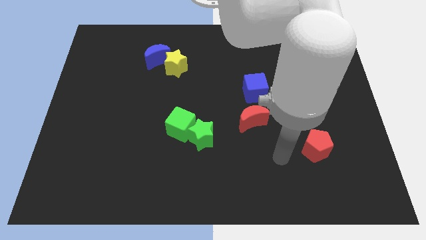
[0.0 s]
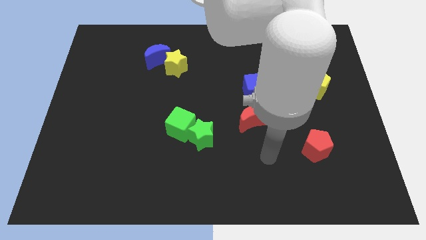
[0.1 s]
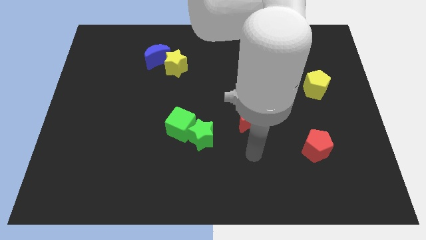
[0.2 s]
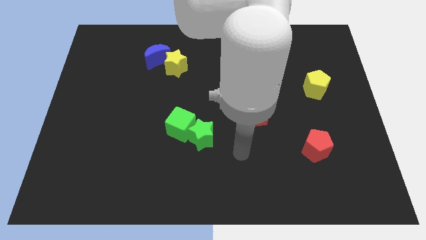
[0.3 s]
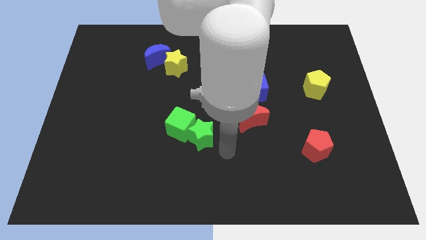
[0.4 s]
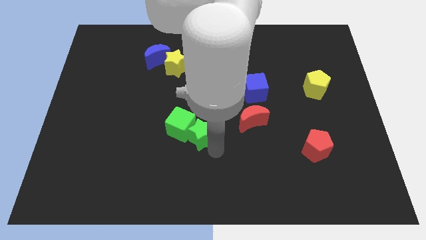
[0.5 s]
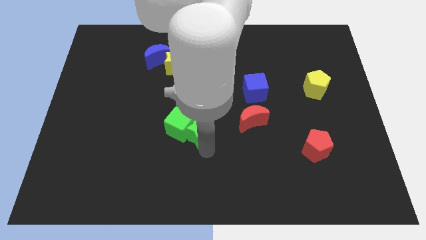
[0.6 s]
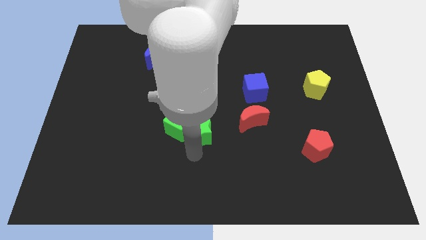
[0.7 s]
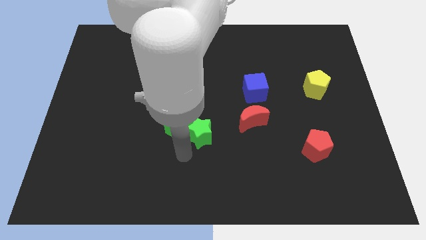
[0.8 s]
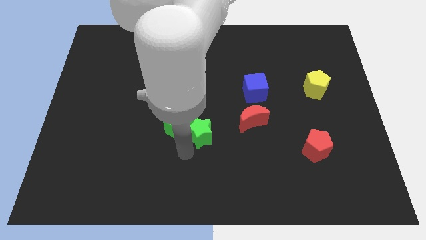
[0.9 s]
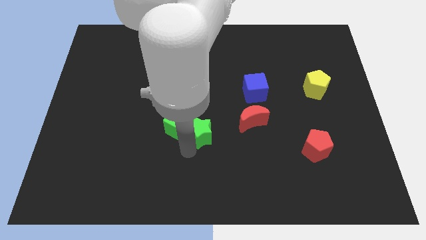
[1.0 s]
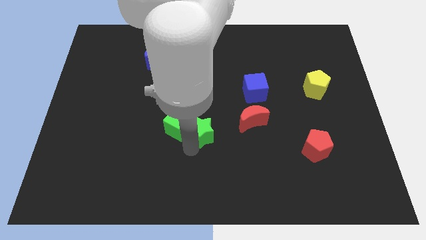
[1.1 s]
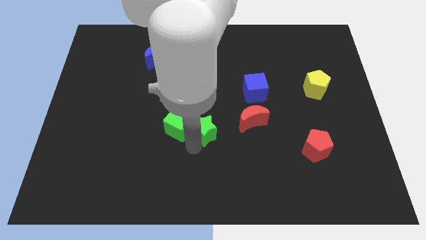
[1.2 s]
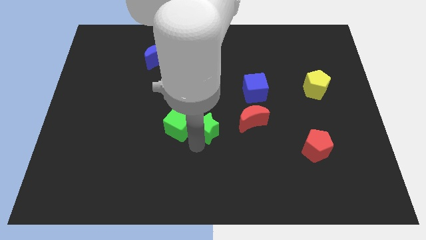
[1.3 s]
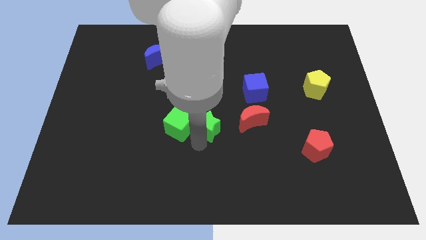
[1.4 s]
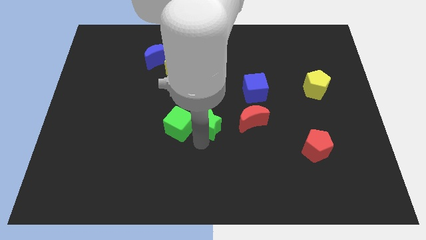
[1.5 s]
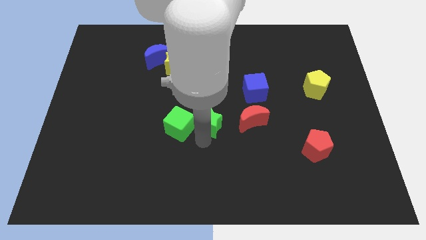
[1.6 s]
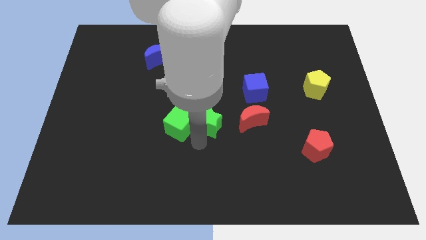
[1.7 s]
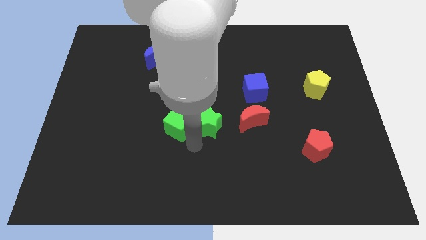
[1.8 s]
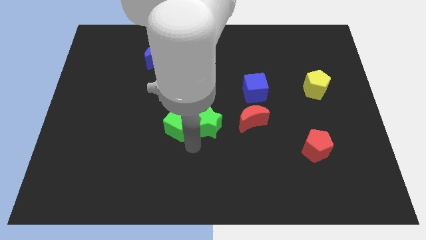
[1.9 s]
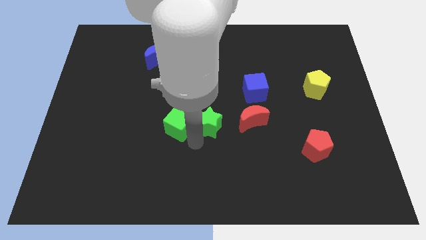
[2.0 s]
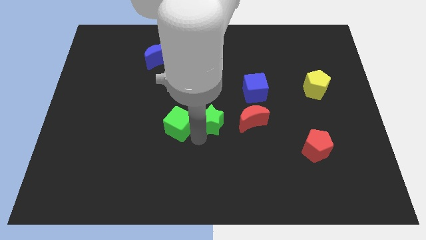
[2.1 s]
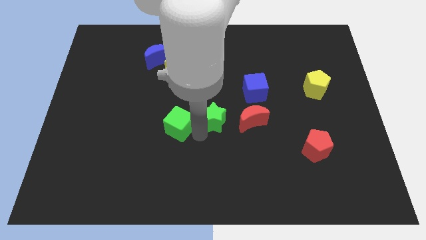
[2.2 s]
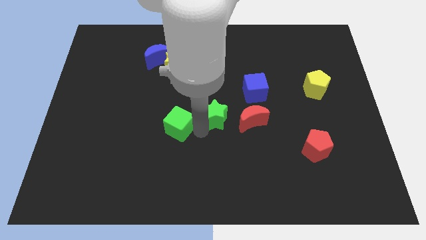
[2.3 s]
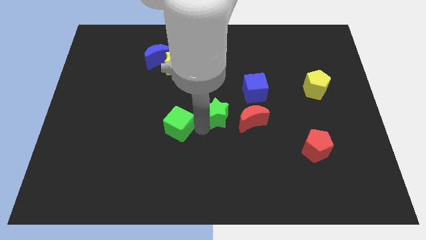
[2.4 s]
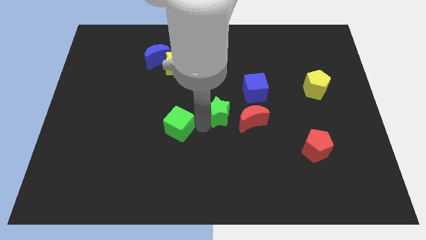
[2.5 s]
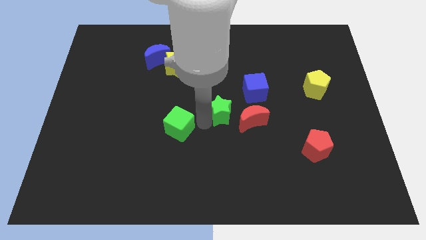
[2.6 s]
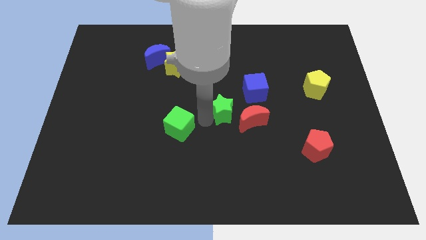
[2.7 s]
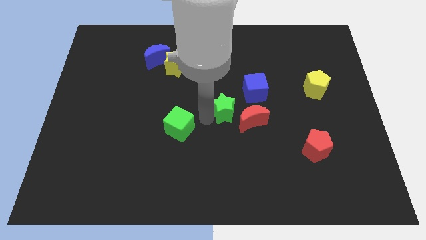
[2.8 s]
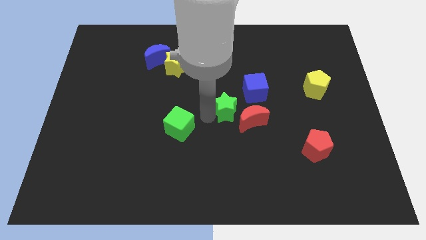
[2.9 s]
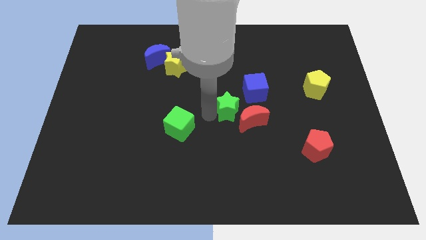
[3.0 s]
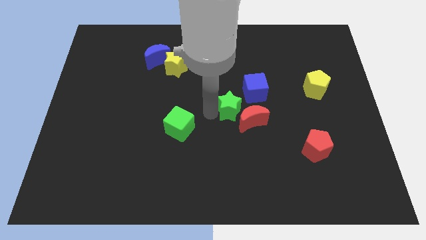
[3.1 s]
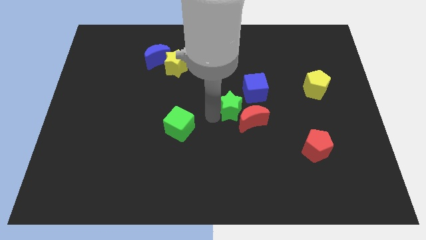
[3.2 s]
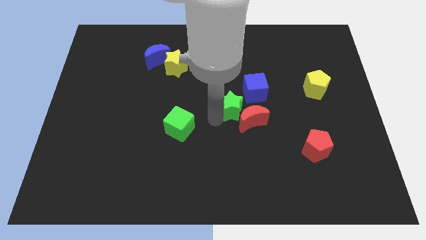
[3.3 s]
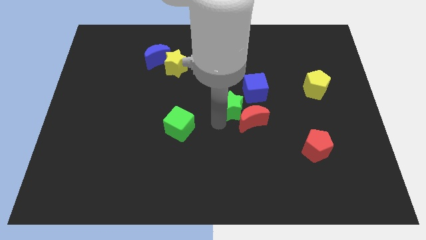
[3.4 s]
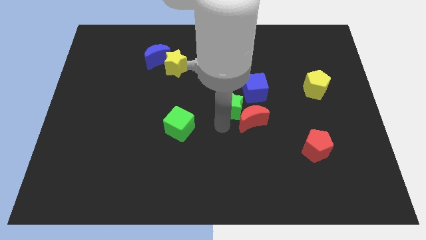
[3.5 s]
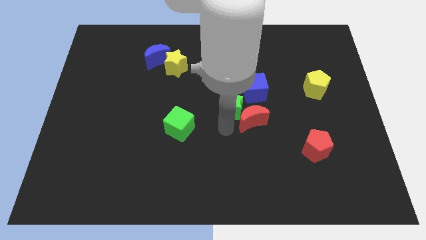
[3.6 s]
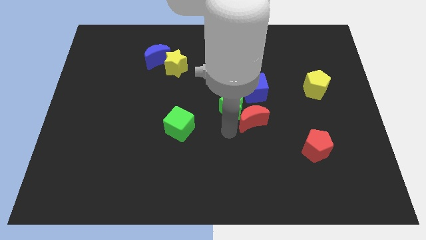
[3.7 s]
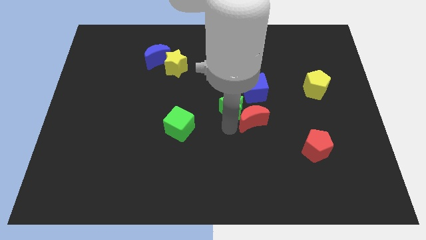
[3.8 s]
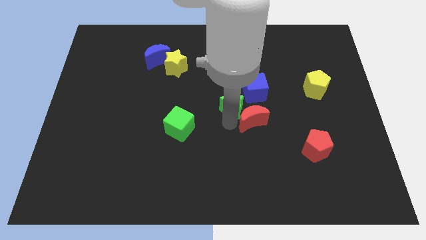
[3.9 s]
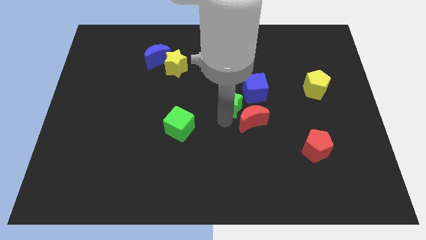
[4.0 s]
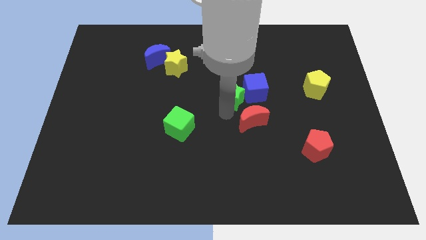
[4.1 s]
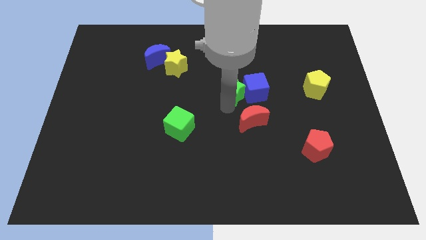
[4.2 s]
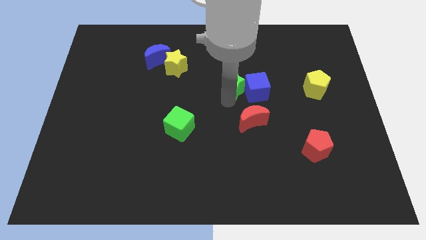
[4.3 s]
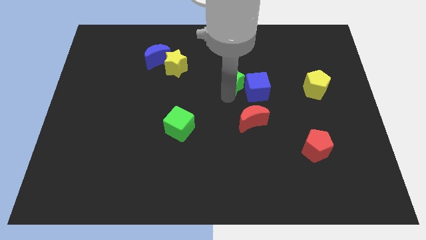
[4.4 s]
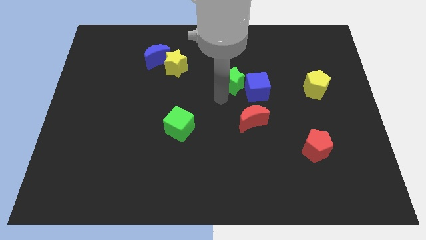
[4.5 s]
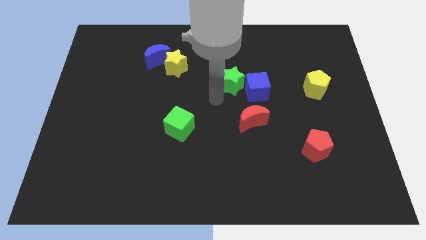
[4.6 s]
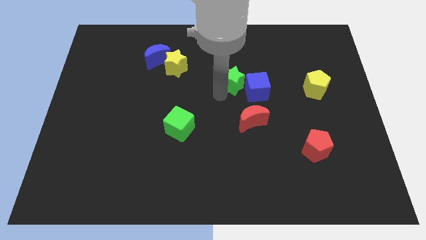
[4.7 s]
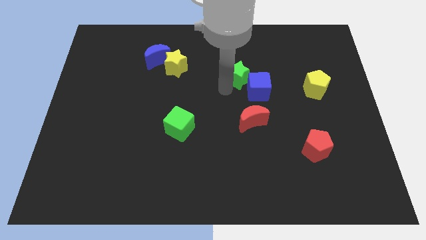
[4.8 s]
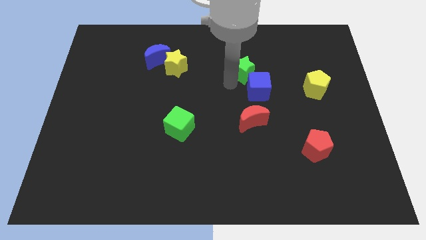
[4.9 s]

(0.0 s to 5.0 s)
push the green star to the top of the blue cube

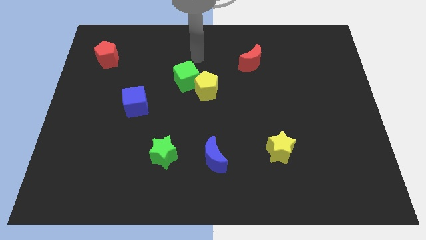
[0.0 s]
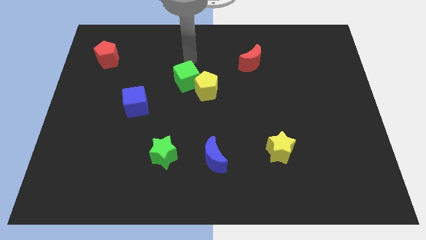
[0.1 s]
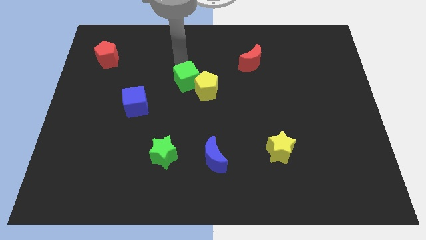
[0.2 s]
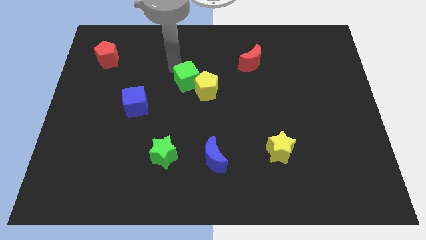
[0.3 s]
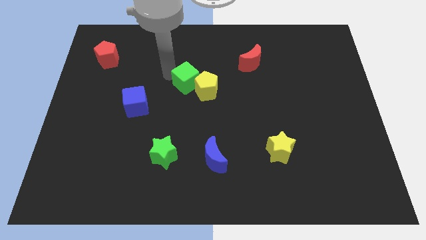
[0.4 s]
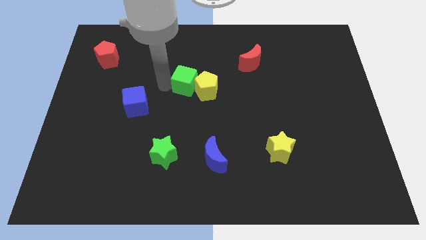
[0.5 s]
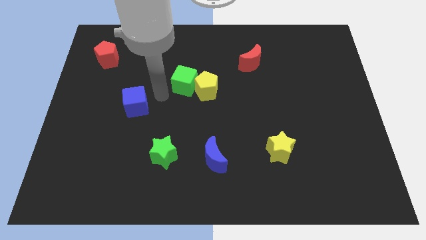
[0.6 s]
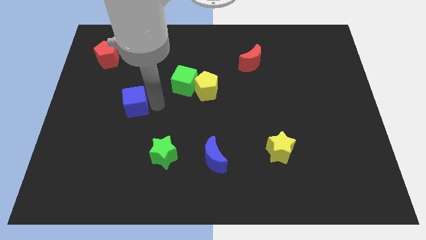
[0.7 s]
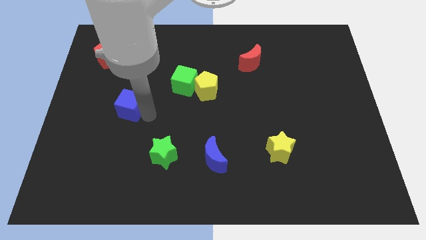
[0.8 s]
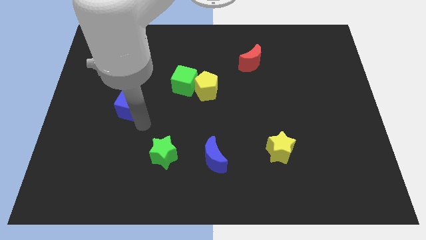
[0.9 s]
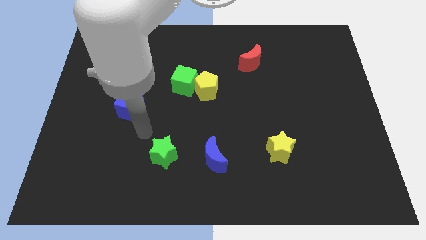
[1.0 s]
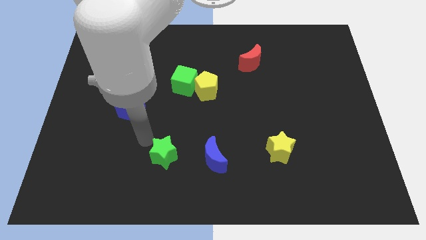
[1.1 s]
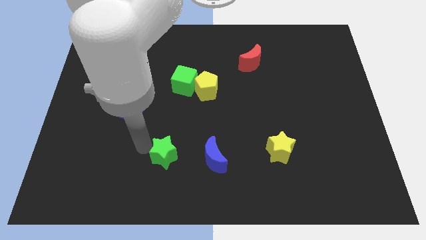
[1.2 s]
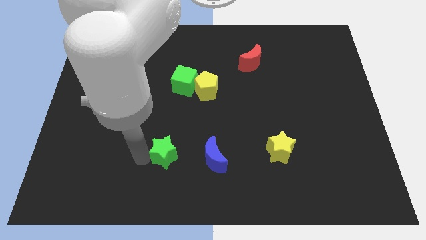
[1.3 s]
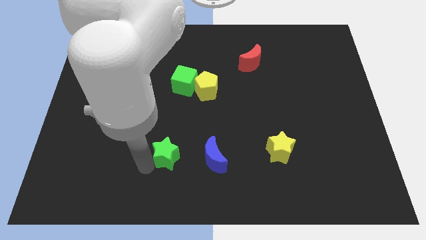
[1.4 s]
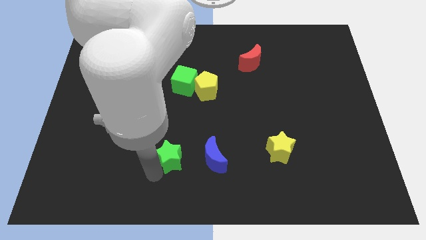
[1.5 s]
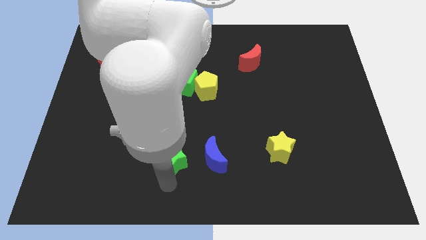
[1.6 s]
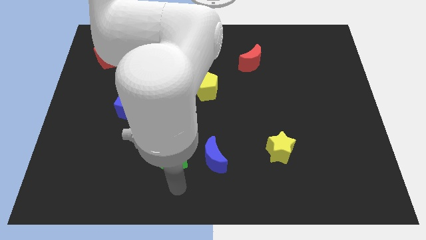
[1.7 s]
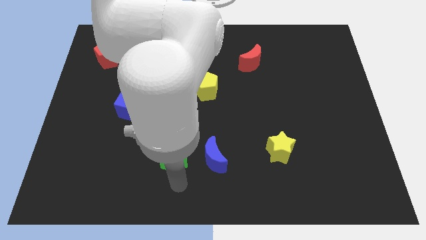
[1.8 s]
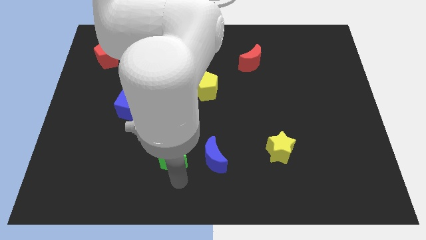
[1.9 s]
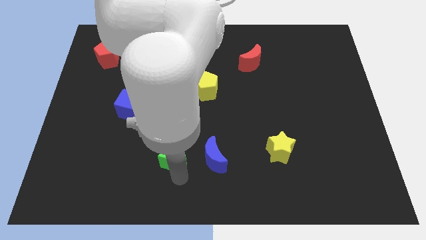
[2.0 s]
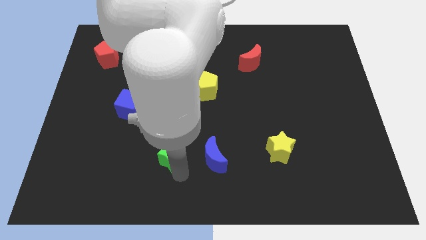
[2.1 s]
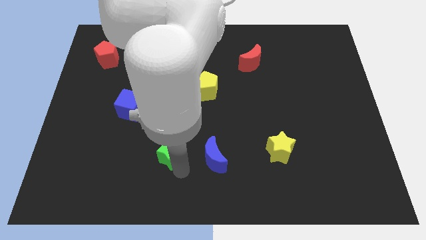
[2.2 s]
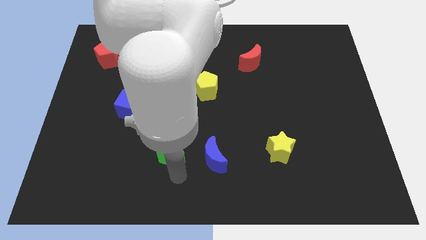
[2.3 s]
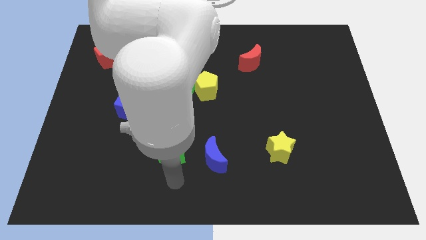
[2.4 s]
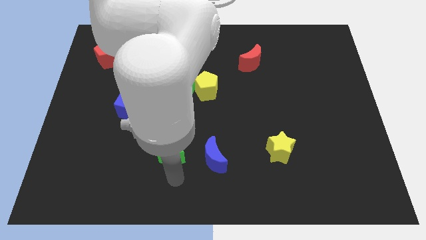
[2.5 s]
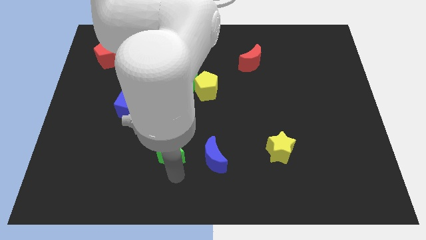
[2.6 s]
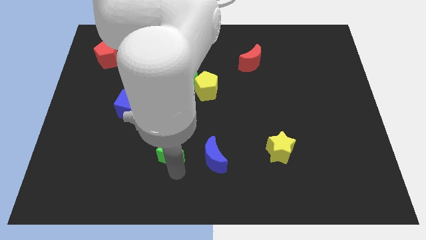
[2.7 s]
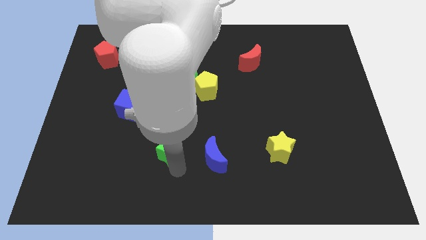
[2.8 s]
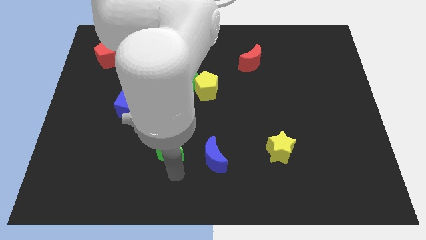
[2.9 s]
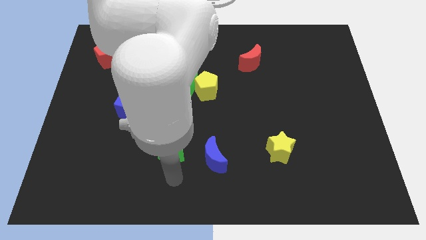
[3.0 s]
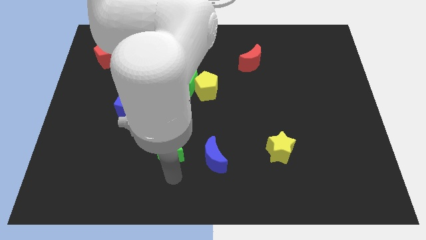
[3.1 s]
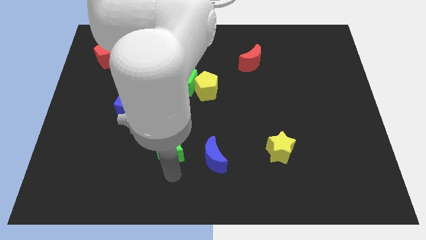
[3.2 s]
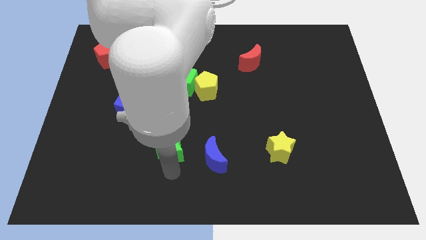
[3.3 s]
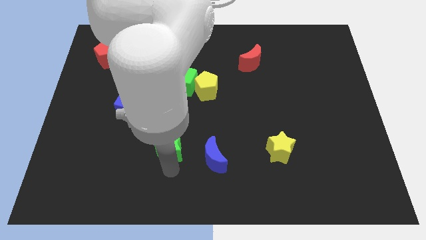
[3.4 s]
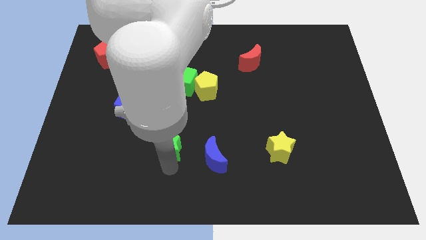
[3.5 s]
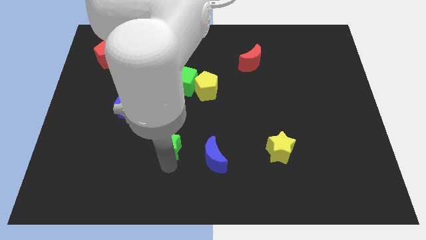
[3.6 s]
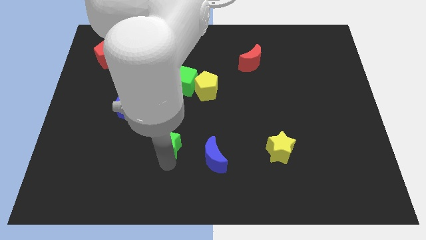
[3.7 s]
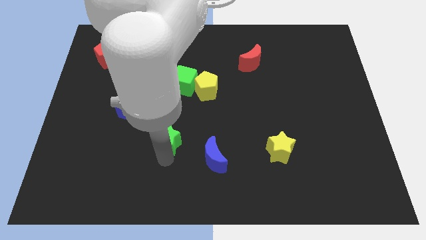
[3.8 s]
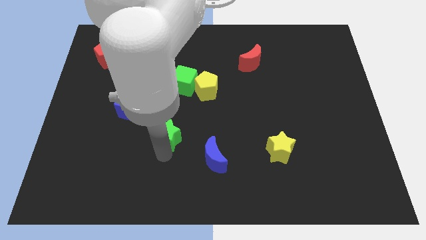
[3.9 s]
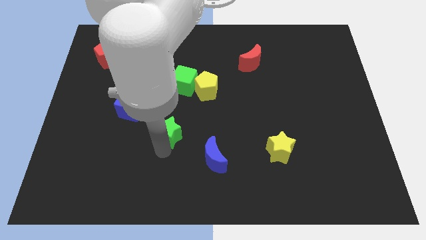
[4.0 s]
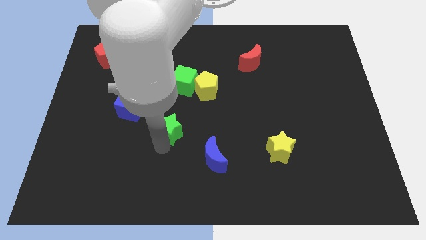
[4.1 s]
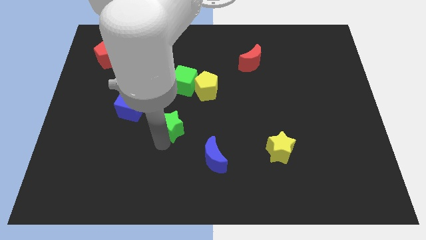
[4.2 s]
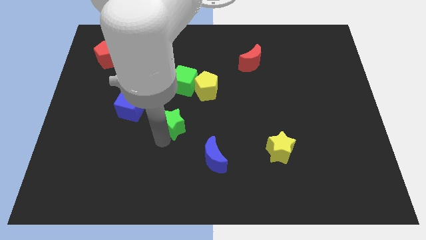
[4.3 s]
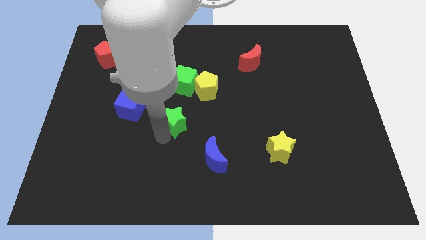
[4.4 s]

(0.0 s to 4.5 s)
slide the green star to the bottom left side of the yellow pentagon
